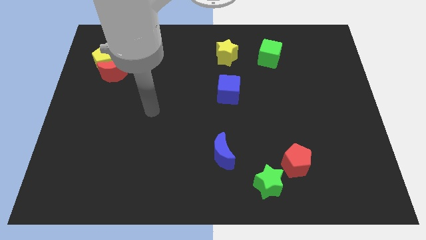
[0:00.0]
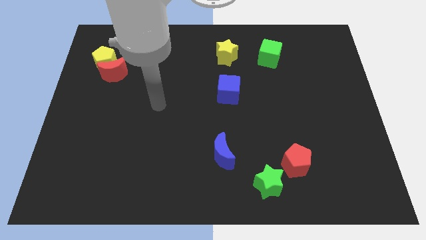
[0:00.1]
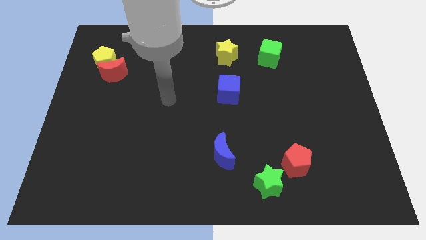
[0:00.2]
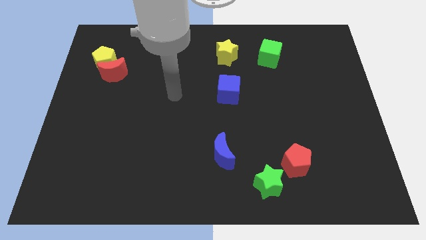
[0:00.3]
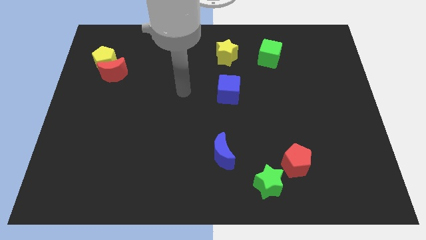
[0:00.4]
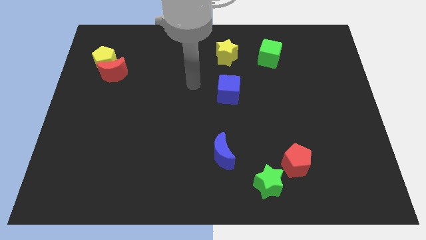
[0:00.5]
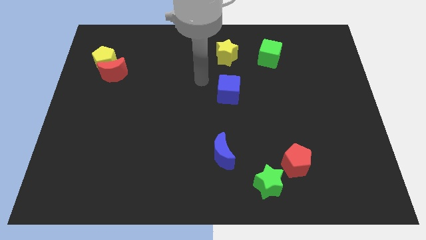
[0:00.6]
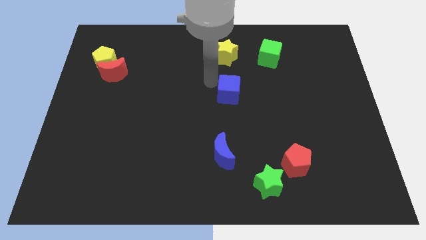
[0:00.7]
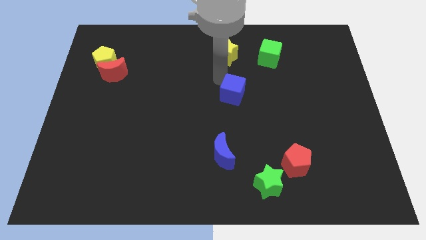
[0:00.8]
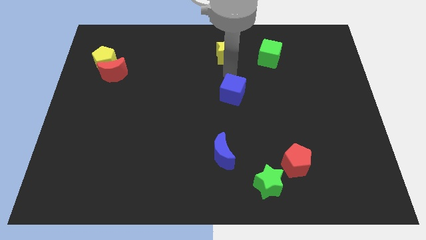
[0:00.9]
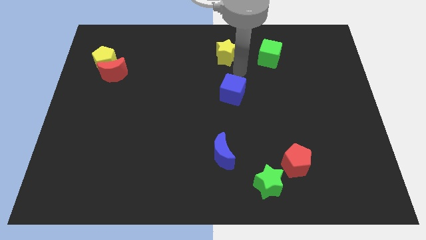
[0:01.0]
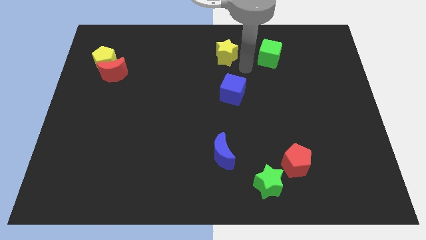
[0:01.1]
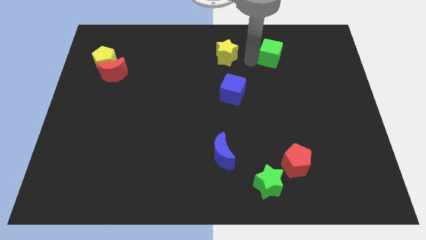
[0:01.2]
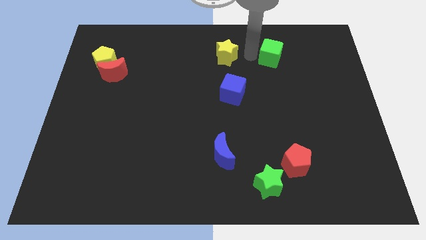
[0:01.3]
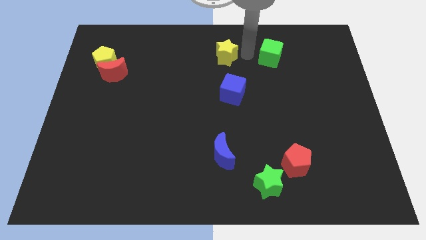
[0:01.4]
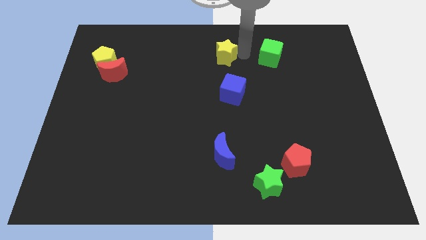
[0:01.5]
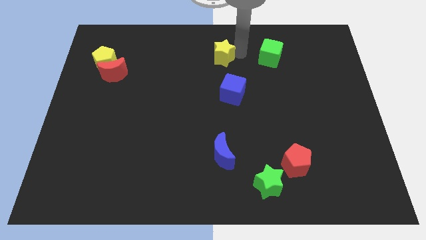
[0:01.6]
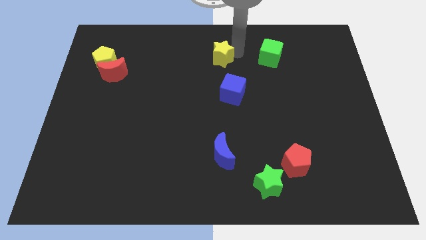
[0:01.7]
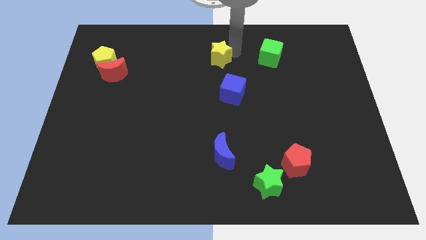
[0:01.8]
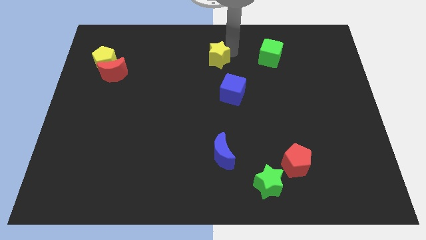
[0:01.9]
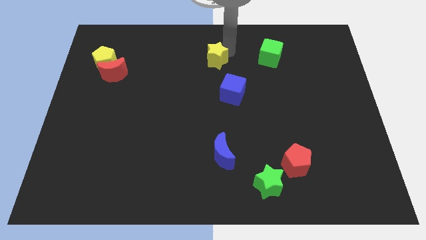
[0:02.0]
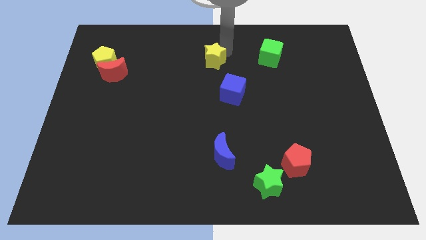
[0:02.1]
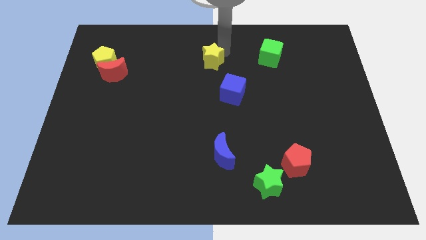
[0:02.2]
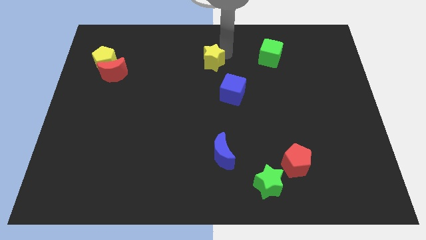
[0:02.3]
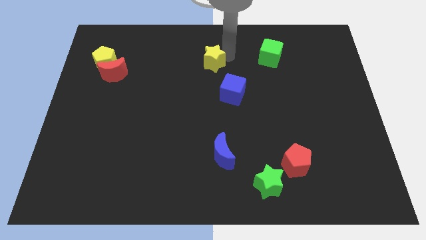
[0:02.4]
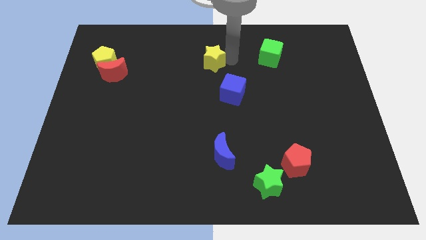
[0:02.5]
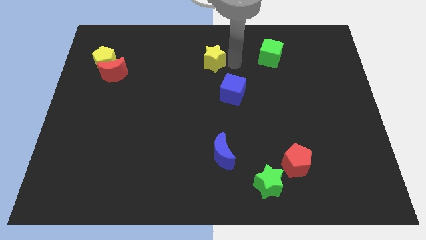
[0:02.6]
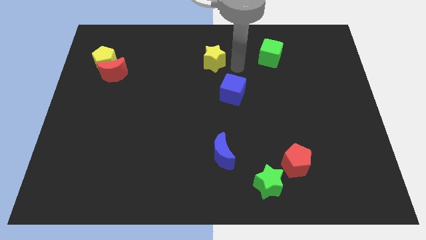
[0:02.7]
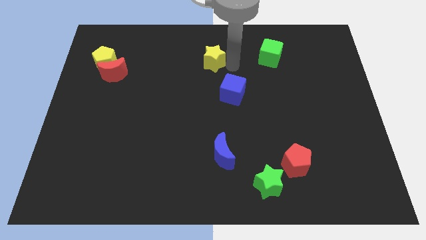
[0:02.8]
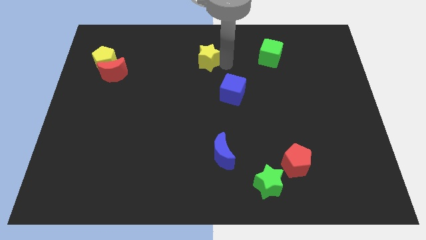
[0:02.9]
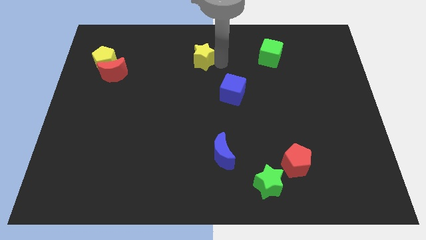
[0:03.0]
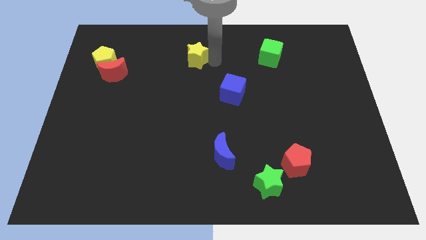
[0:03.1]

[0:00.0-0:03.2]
move the yellow star left somewhat

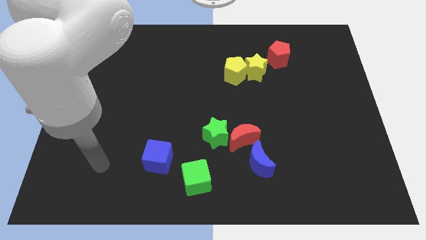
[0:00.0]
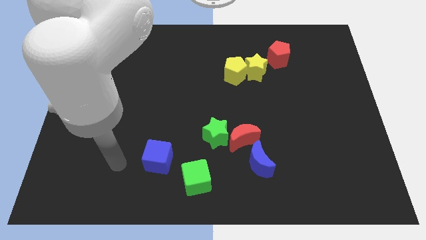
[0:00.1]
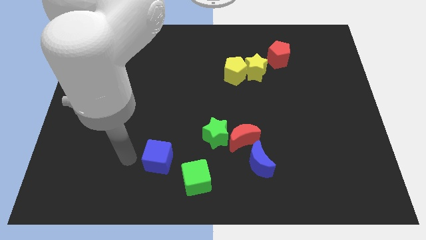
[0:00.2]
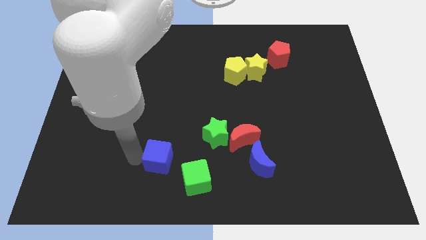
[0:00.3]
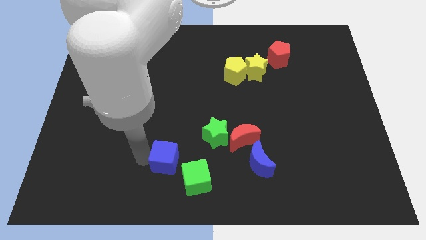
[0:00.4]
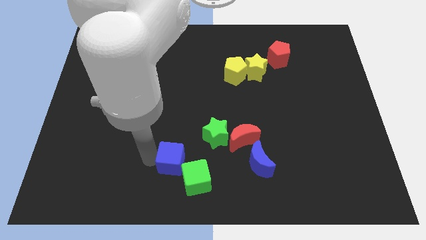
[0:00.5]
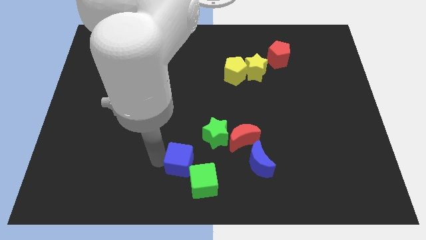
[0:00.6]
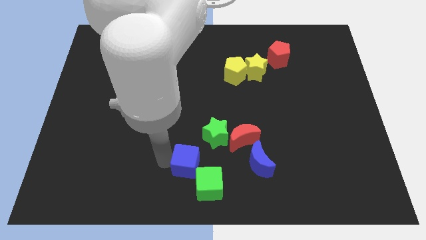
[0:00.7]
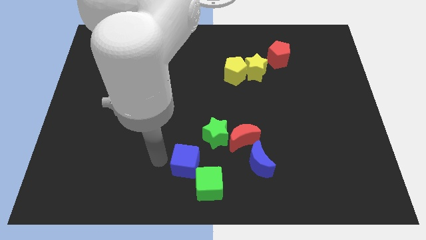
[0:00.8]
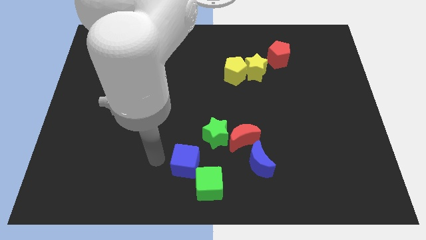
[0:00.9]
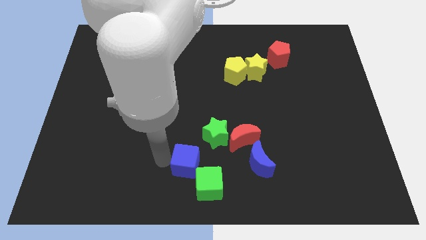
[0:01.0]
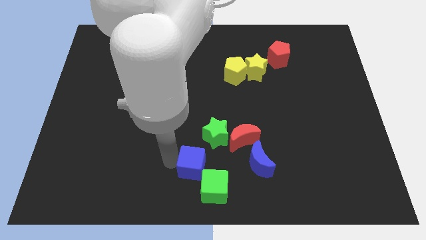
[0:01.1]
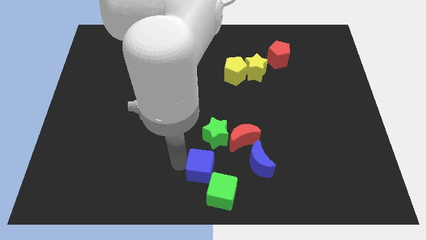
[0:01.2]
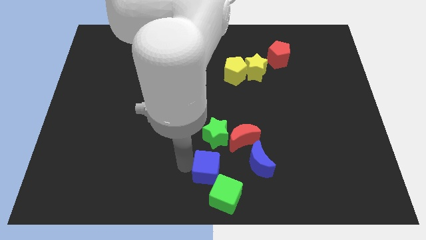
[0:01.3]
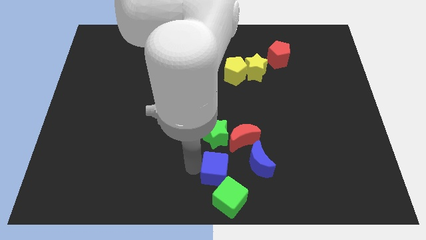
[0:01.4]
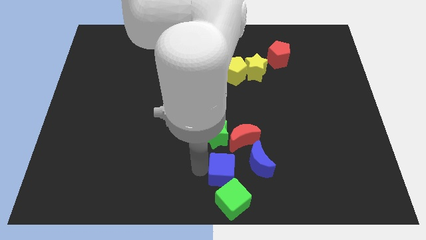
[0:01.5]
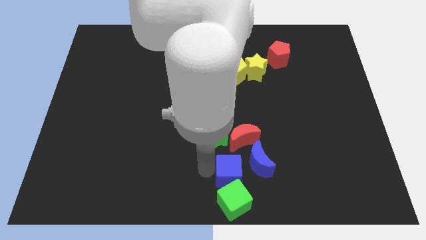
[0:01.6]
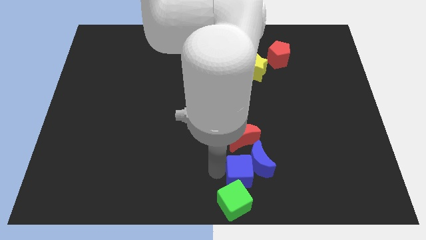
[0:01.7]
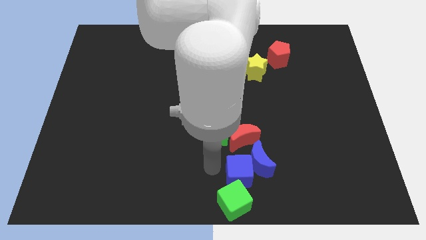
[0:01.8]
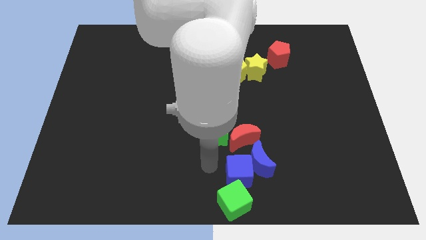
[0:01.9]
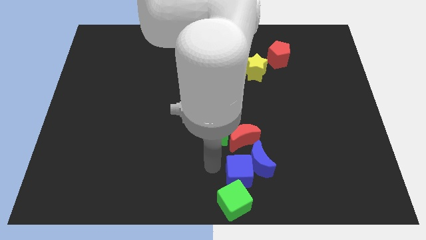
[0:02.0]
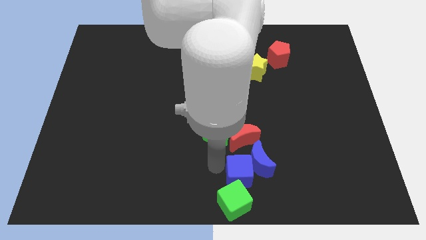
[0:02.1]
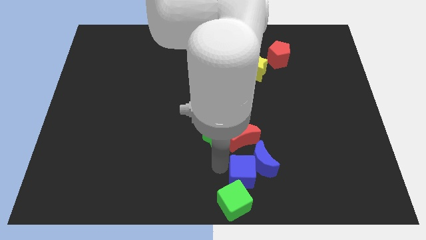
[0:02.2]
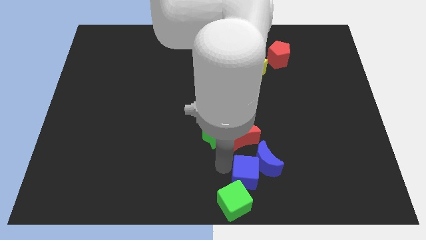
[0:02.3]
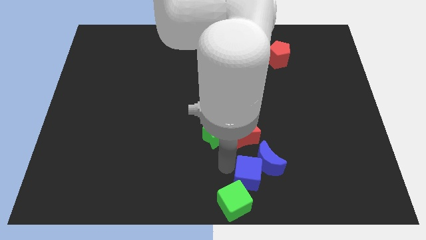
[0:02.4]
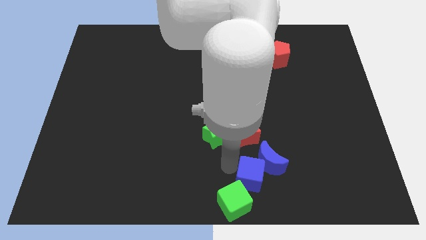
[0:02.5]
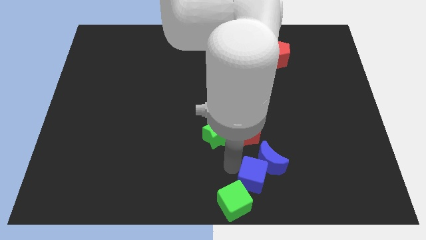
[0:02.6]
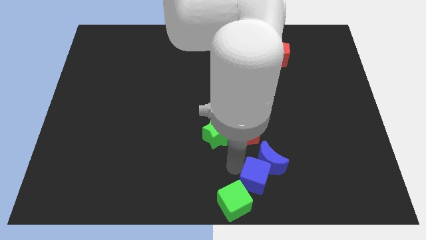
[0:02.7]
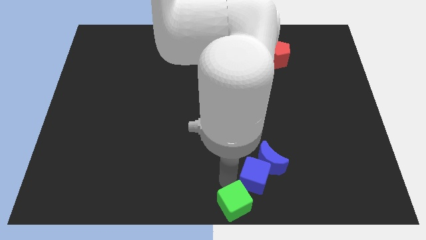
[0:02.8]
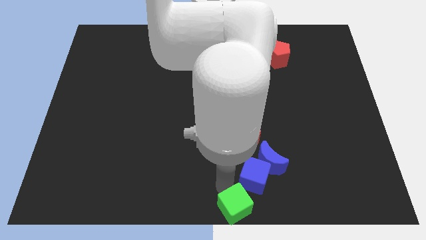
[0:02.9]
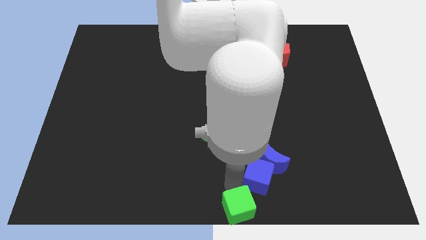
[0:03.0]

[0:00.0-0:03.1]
slide the blue cube to the right

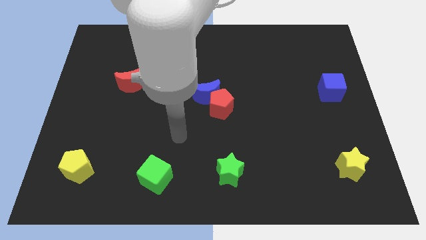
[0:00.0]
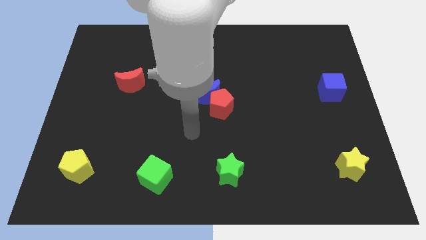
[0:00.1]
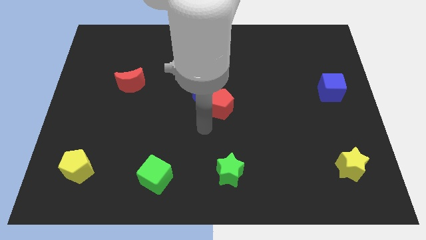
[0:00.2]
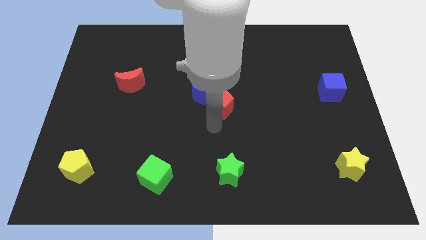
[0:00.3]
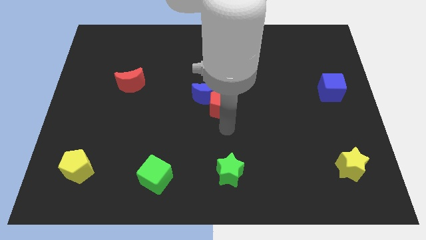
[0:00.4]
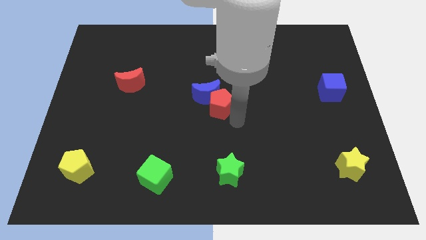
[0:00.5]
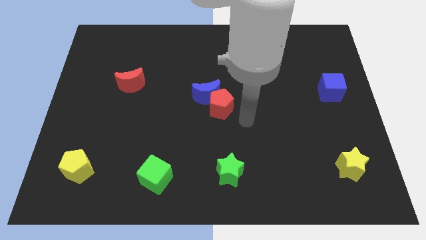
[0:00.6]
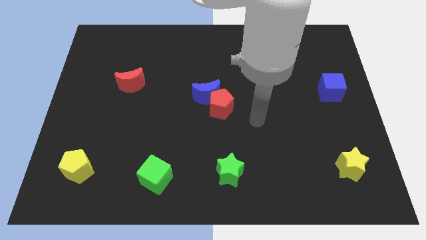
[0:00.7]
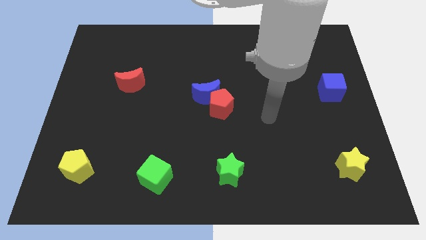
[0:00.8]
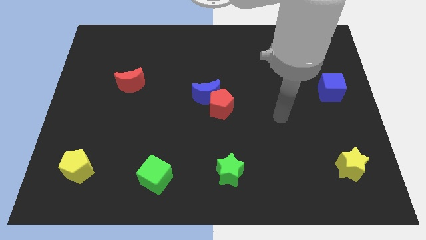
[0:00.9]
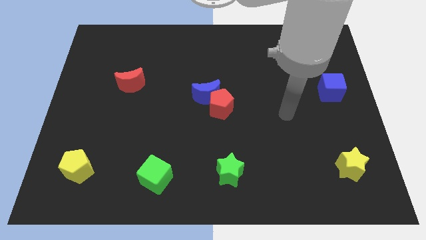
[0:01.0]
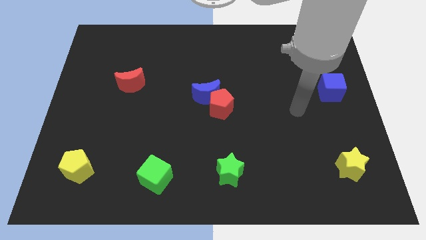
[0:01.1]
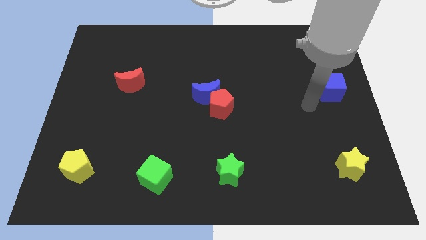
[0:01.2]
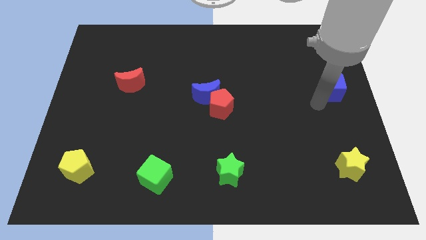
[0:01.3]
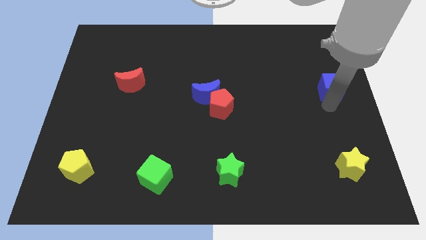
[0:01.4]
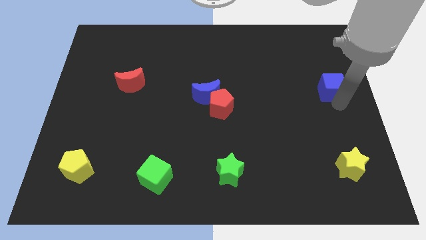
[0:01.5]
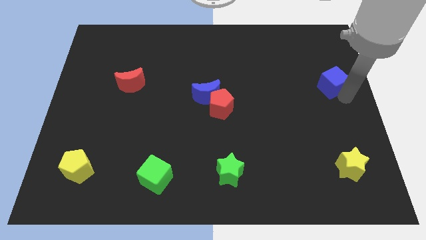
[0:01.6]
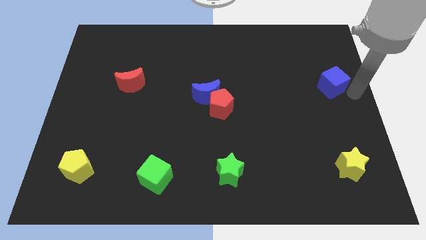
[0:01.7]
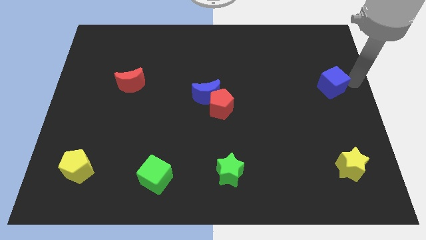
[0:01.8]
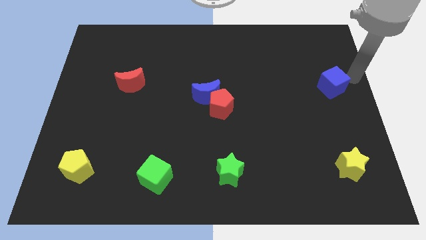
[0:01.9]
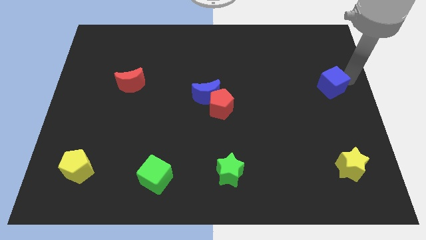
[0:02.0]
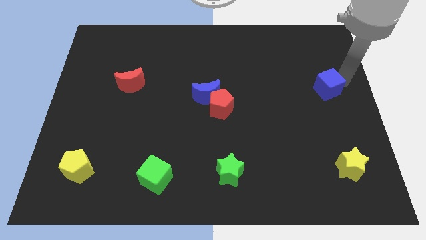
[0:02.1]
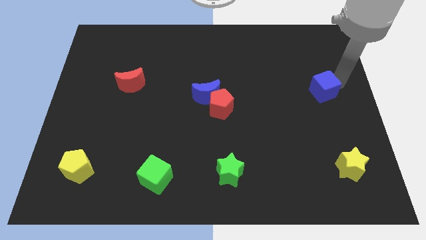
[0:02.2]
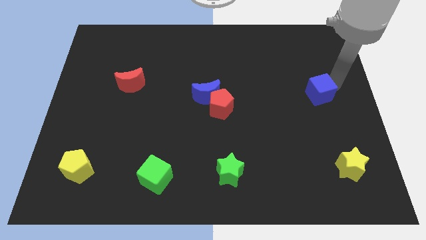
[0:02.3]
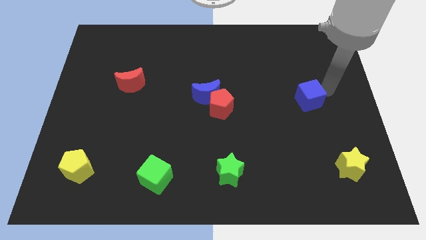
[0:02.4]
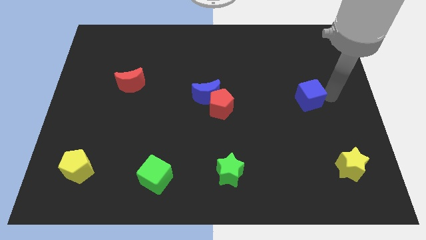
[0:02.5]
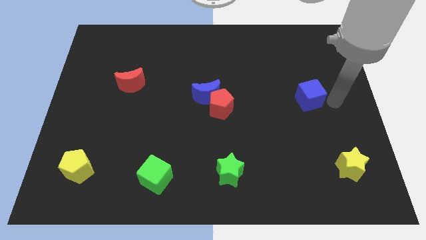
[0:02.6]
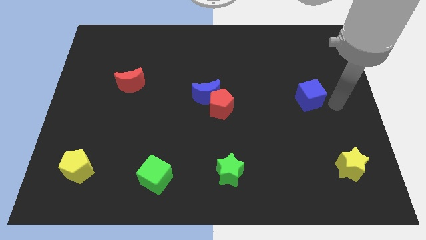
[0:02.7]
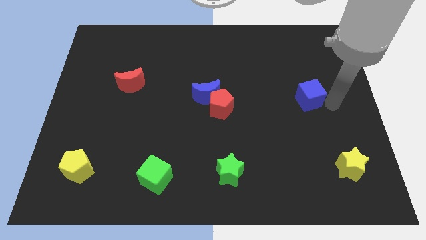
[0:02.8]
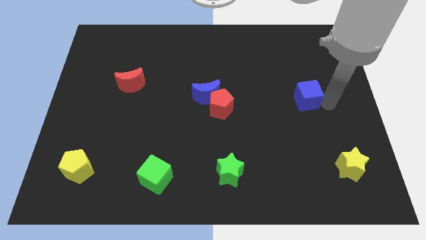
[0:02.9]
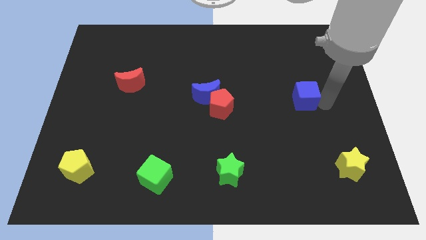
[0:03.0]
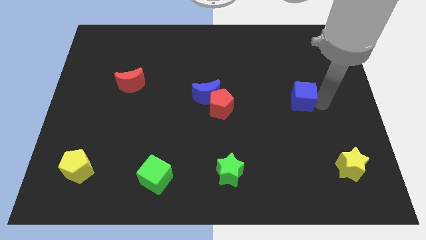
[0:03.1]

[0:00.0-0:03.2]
slightly slide the blue cube left
